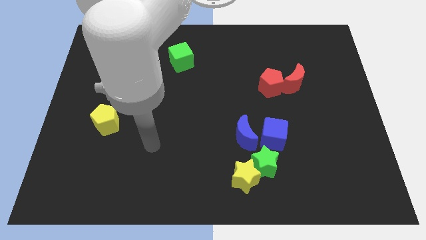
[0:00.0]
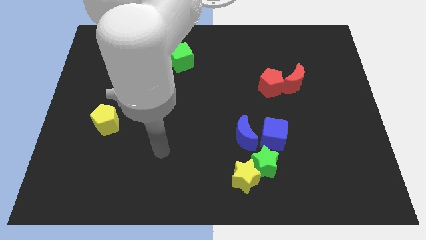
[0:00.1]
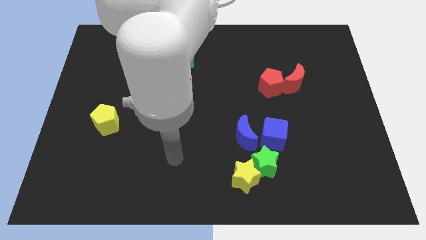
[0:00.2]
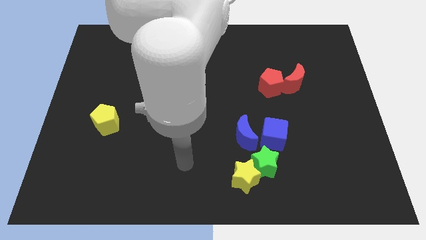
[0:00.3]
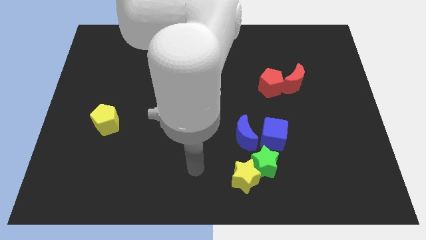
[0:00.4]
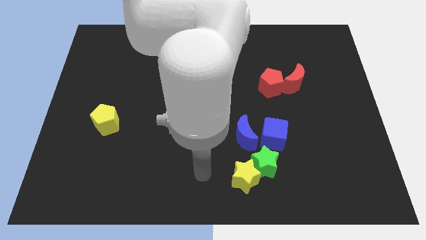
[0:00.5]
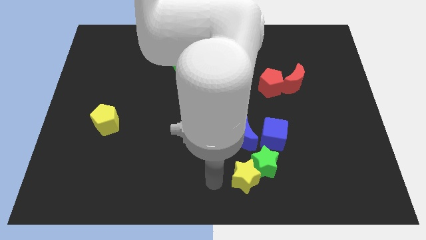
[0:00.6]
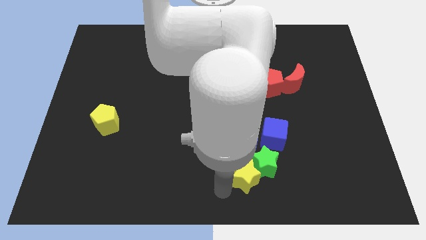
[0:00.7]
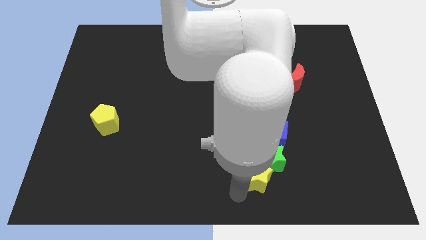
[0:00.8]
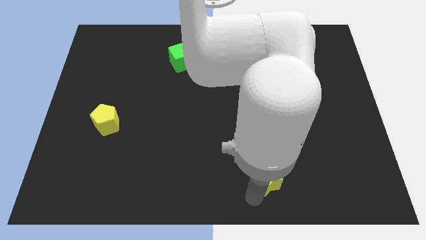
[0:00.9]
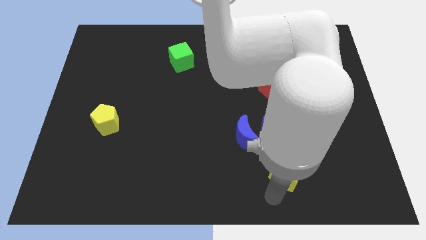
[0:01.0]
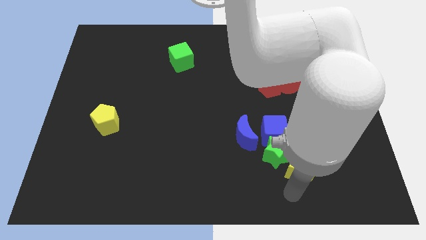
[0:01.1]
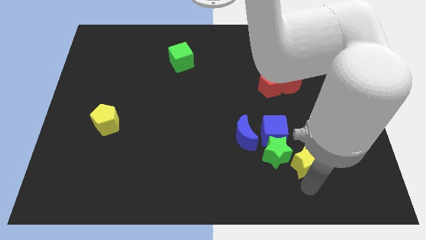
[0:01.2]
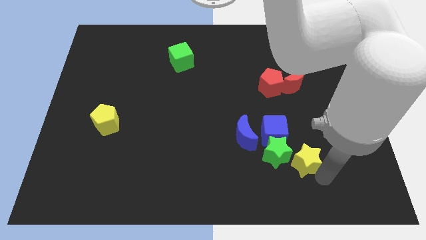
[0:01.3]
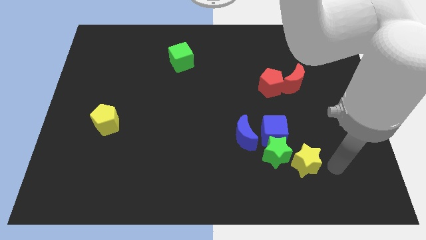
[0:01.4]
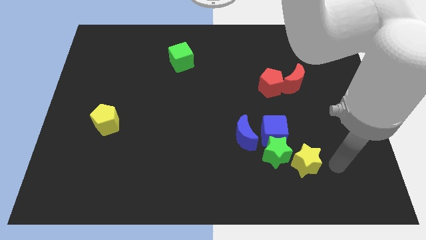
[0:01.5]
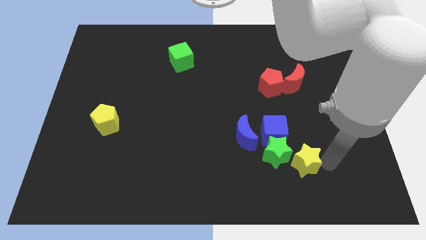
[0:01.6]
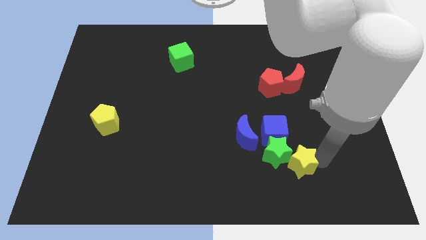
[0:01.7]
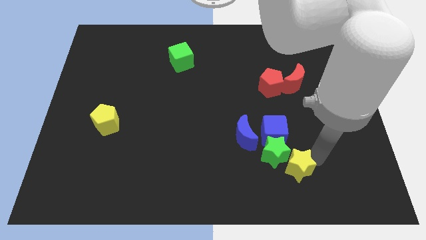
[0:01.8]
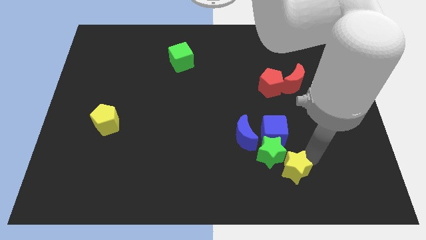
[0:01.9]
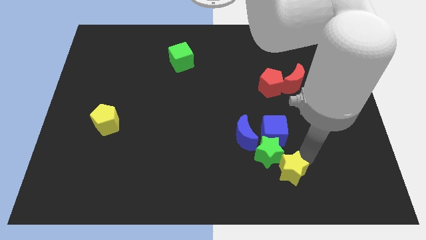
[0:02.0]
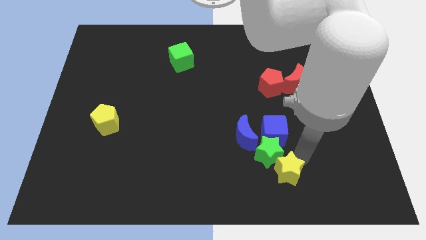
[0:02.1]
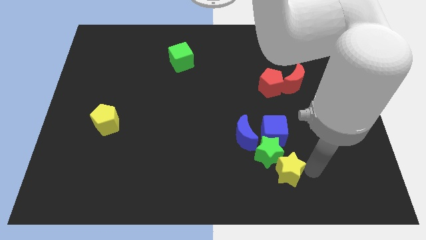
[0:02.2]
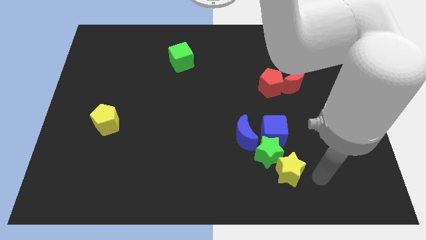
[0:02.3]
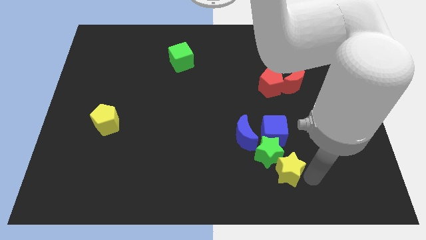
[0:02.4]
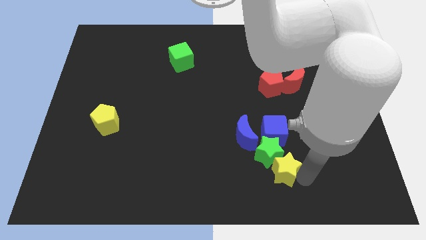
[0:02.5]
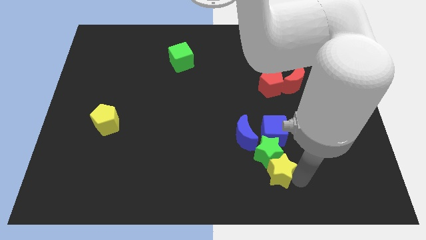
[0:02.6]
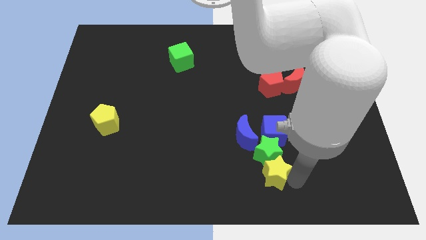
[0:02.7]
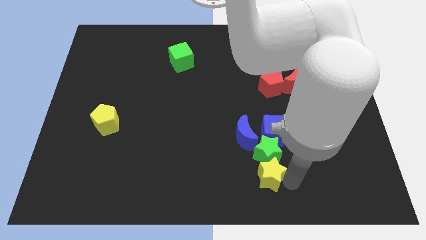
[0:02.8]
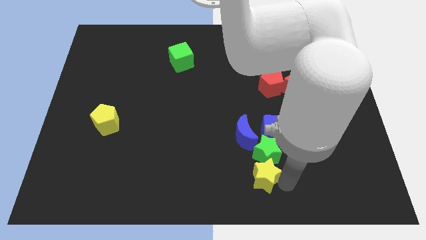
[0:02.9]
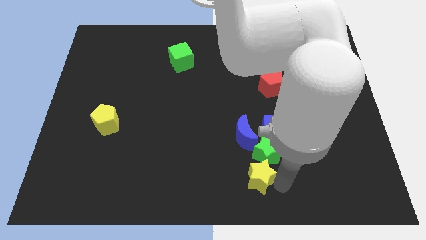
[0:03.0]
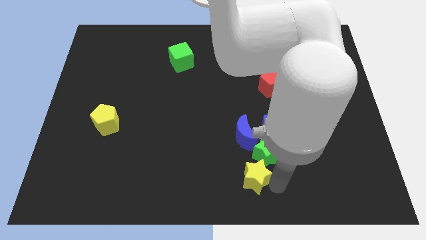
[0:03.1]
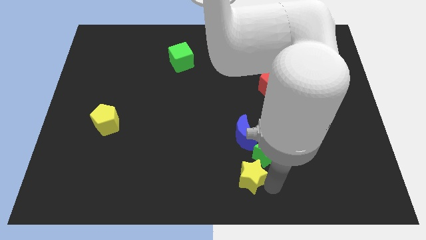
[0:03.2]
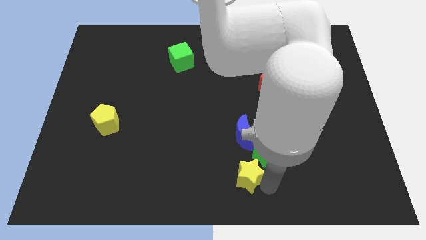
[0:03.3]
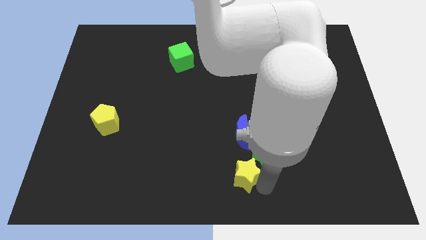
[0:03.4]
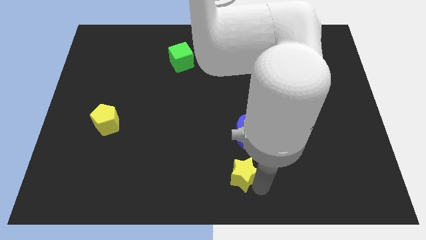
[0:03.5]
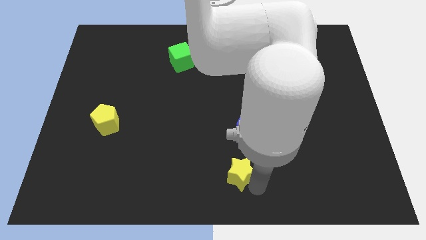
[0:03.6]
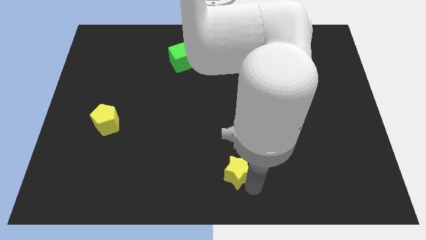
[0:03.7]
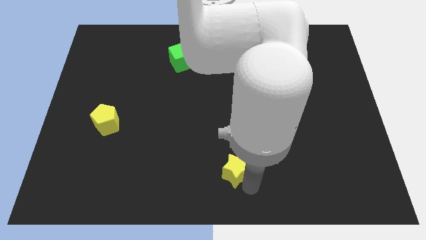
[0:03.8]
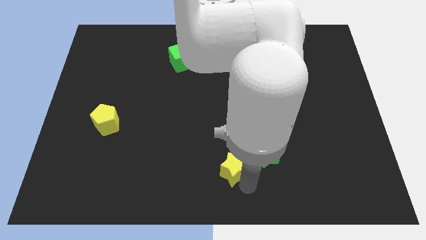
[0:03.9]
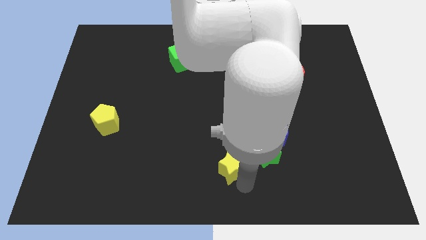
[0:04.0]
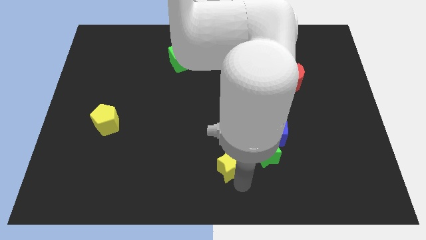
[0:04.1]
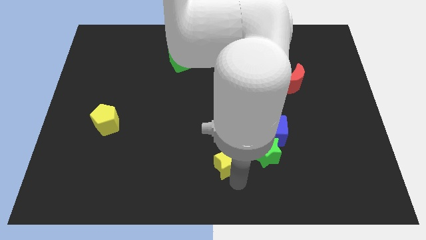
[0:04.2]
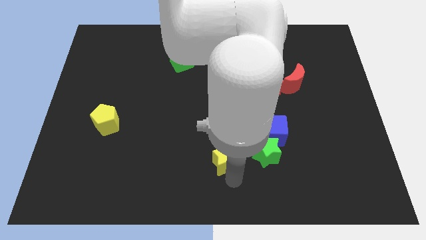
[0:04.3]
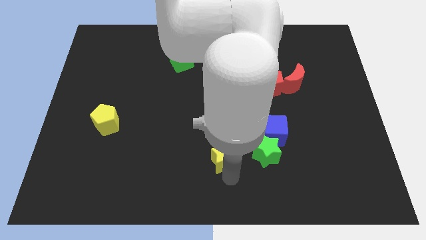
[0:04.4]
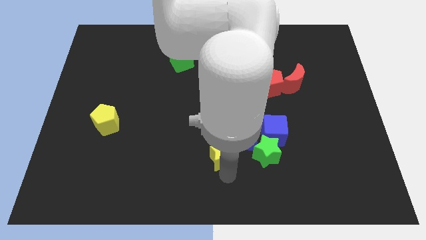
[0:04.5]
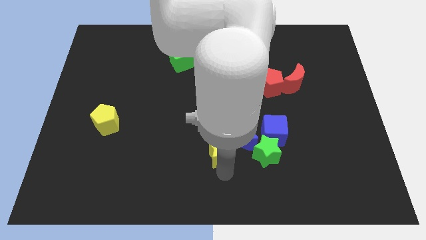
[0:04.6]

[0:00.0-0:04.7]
slightly slide the yellow star upwards and then to the left

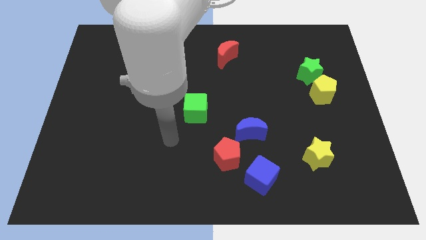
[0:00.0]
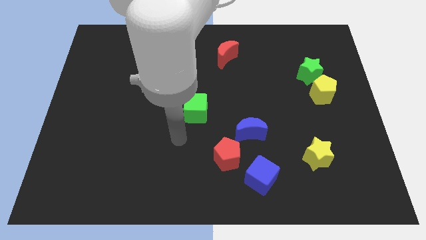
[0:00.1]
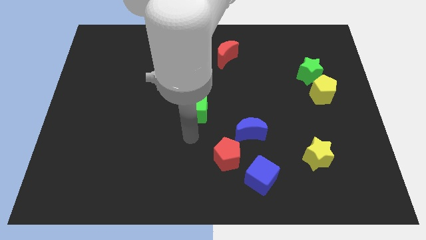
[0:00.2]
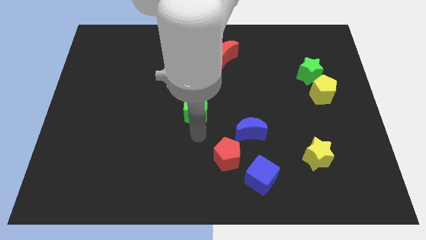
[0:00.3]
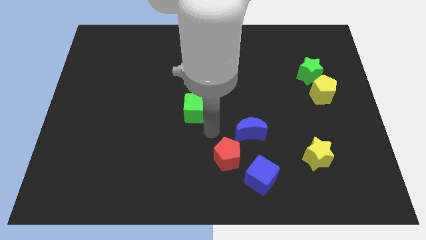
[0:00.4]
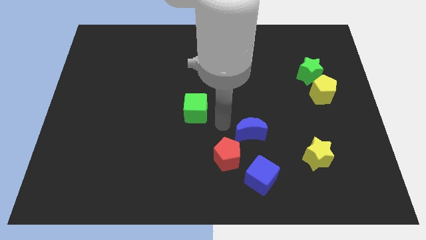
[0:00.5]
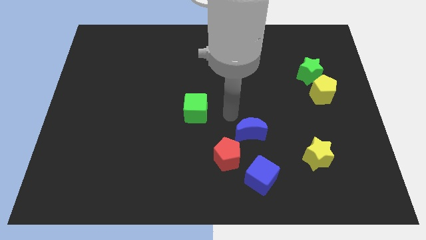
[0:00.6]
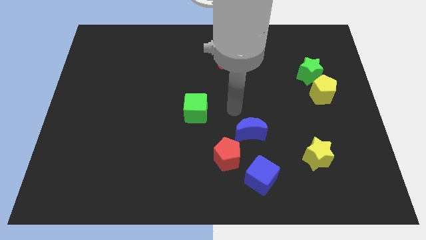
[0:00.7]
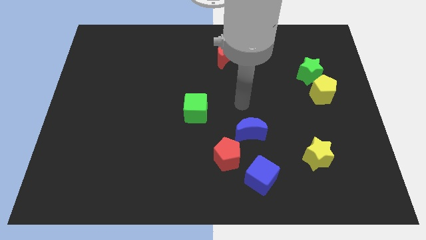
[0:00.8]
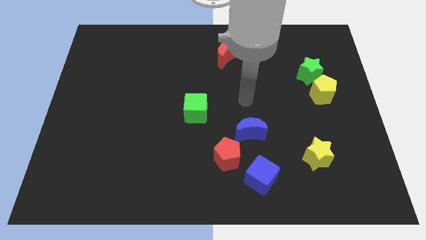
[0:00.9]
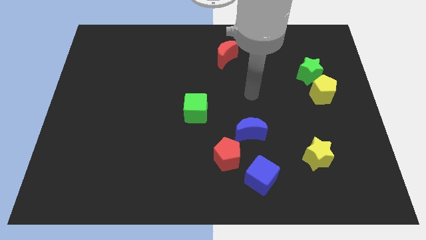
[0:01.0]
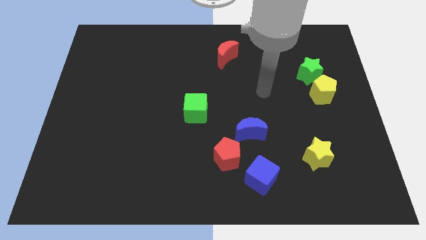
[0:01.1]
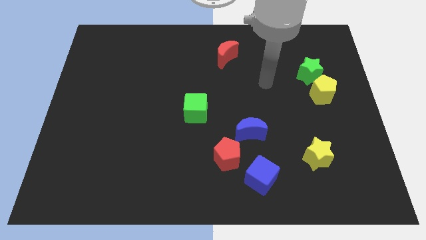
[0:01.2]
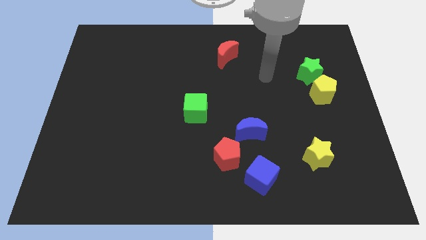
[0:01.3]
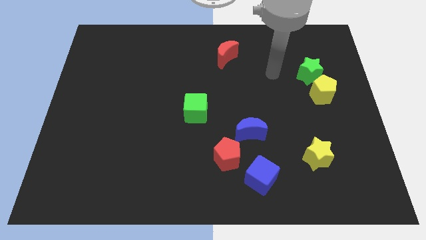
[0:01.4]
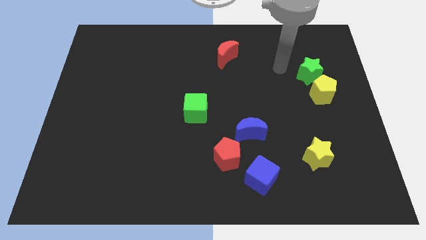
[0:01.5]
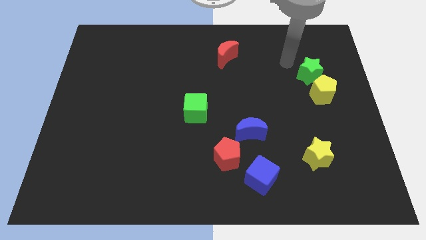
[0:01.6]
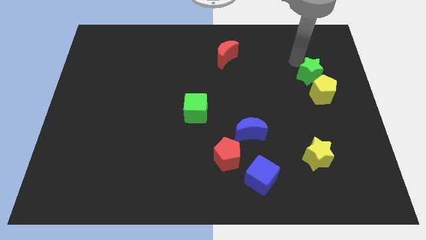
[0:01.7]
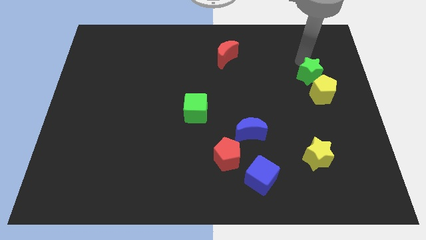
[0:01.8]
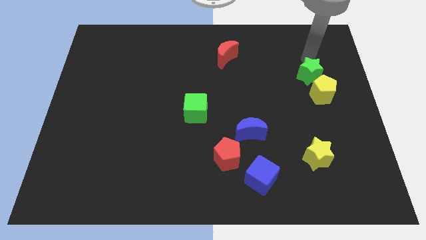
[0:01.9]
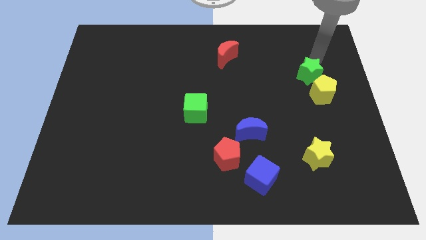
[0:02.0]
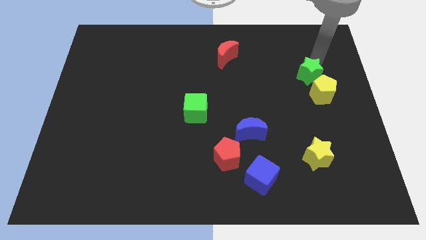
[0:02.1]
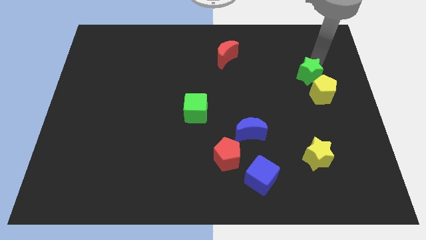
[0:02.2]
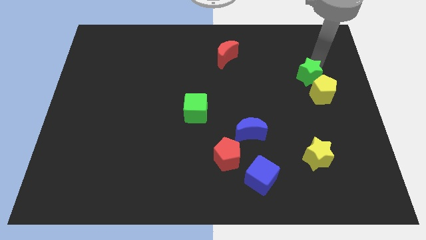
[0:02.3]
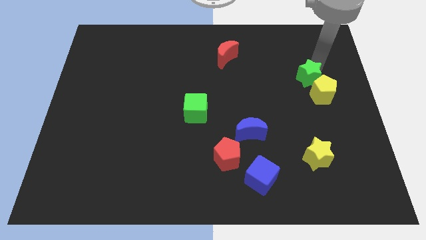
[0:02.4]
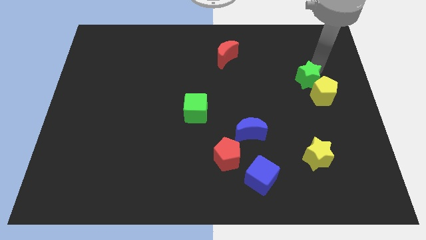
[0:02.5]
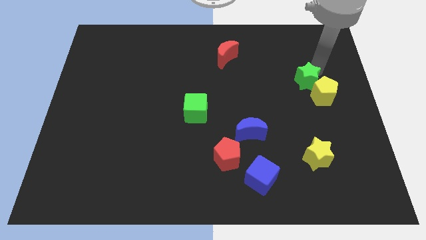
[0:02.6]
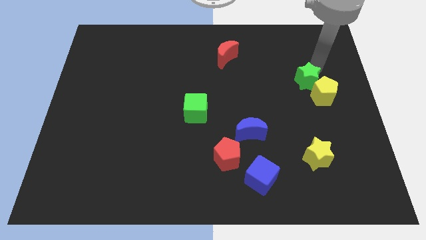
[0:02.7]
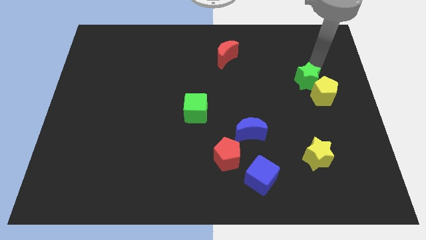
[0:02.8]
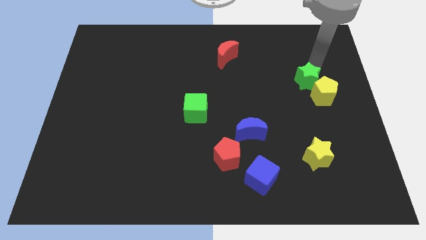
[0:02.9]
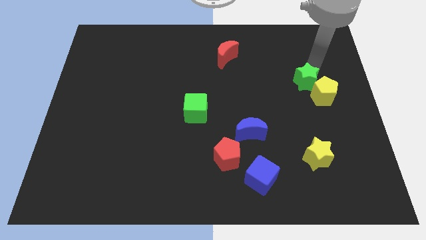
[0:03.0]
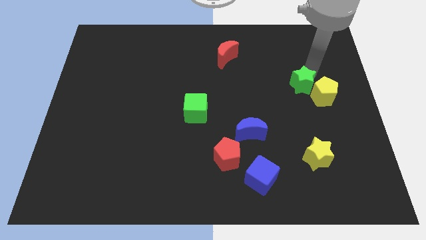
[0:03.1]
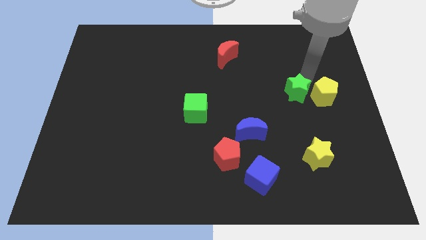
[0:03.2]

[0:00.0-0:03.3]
push the green star a little bit diagonally downwards and to the left
